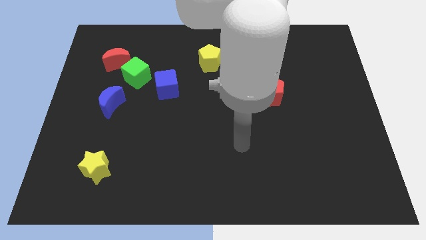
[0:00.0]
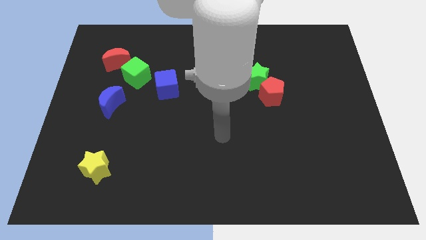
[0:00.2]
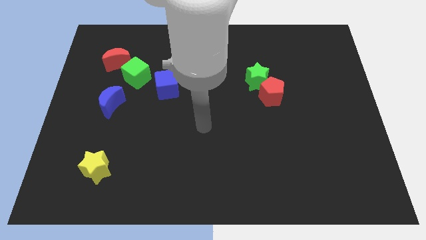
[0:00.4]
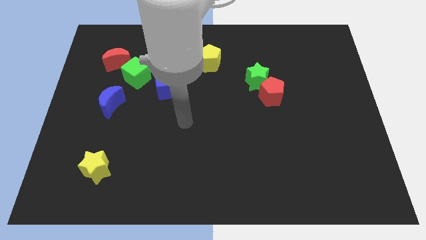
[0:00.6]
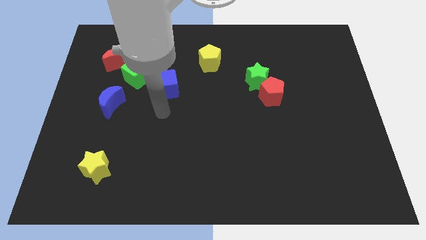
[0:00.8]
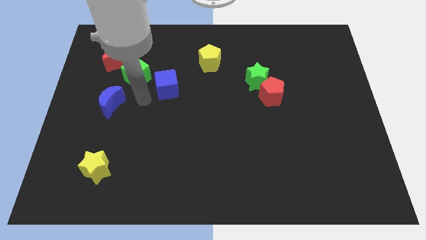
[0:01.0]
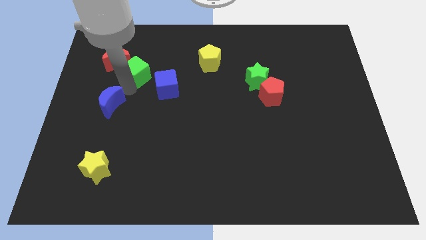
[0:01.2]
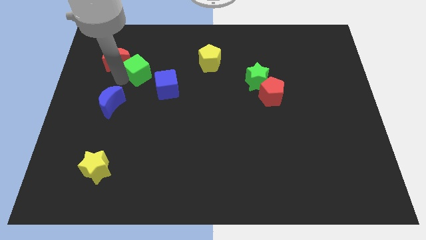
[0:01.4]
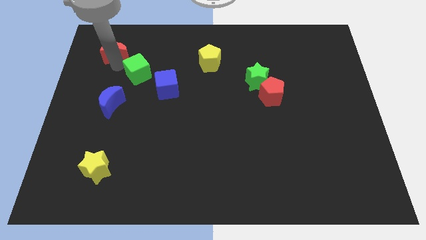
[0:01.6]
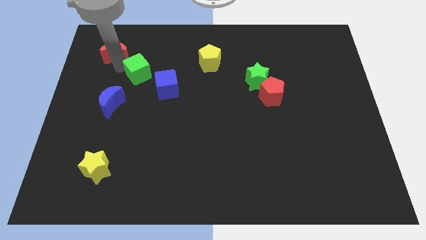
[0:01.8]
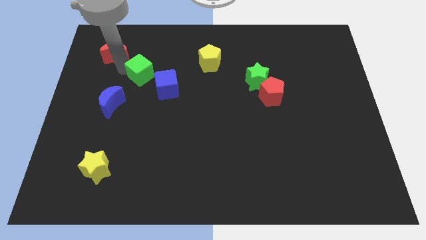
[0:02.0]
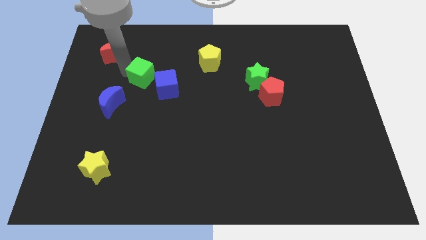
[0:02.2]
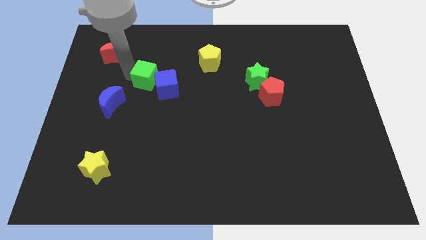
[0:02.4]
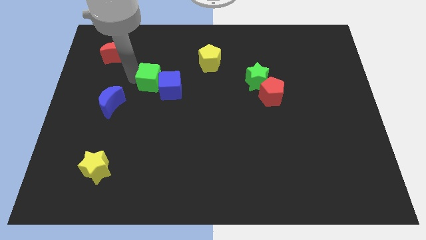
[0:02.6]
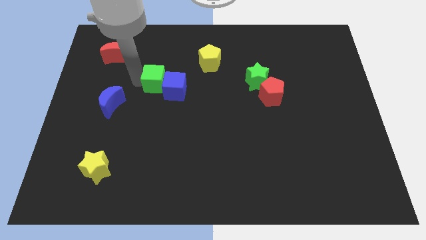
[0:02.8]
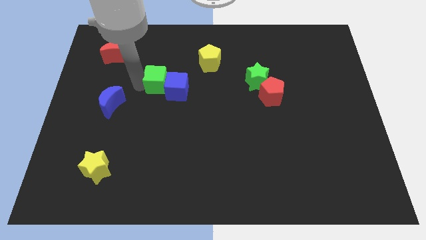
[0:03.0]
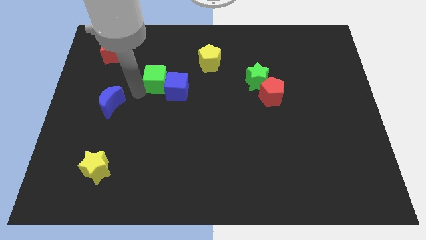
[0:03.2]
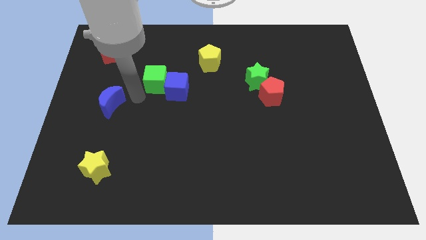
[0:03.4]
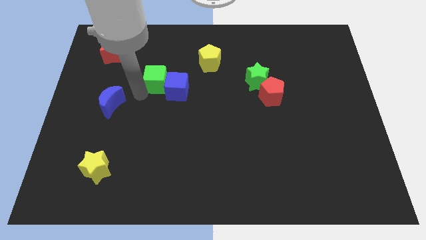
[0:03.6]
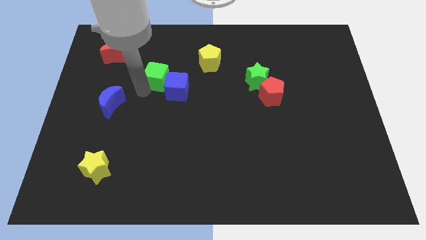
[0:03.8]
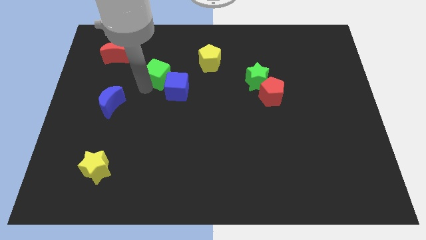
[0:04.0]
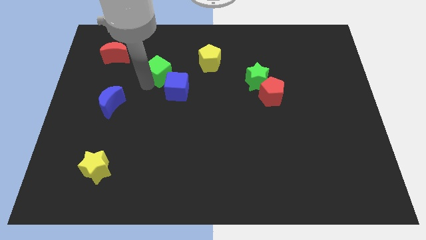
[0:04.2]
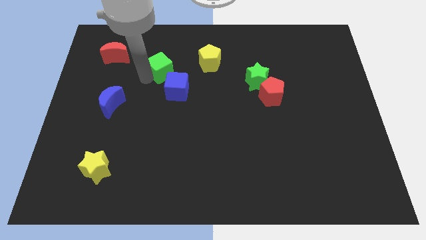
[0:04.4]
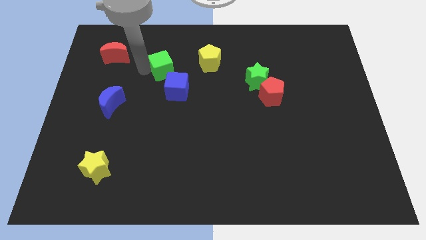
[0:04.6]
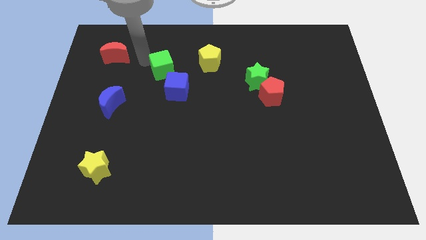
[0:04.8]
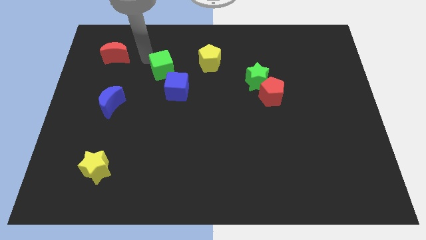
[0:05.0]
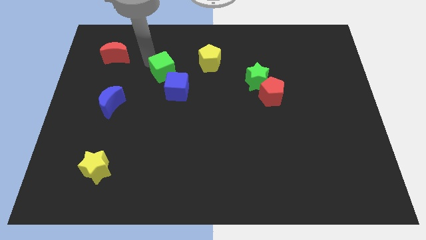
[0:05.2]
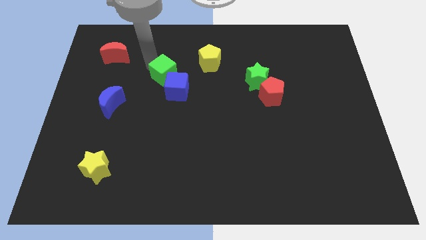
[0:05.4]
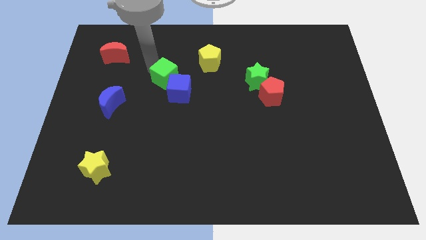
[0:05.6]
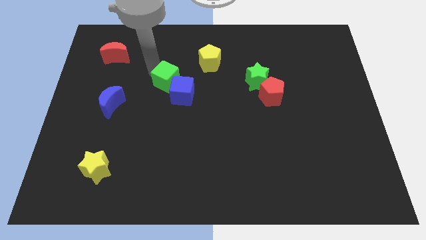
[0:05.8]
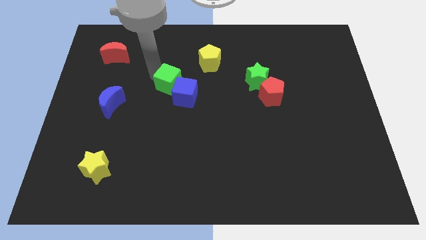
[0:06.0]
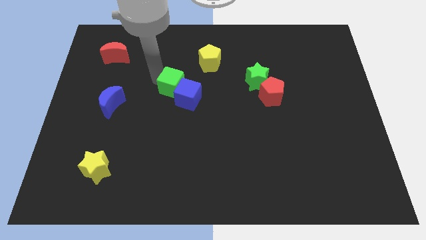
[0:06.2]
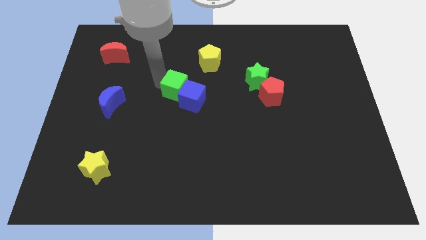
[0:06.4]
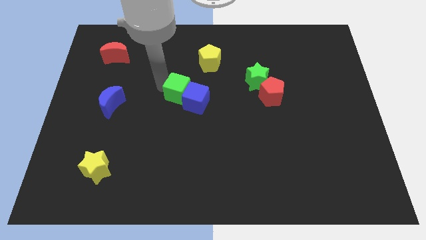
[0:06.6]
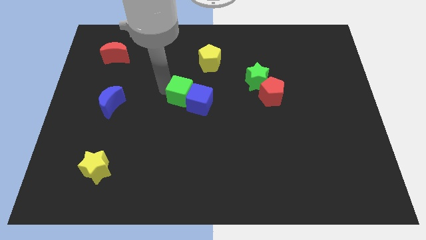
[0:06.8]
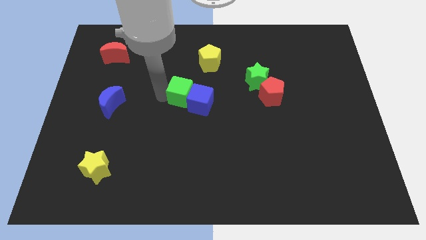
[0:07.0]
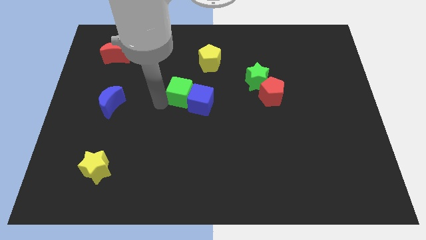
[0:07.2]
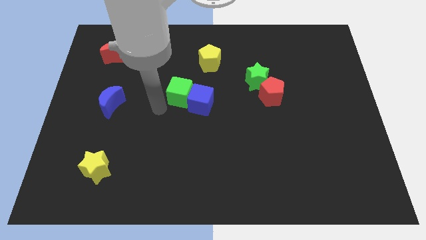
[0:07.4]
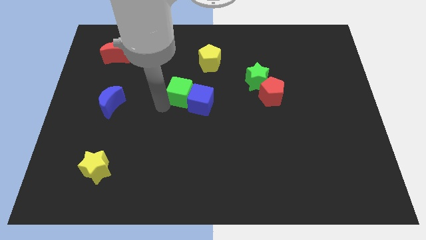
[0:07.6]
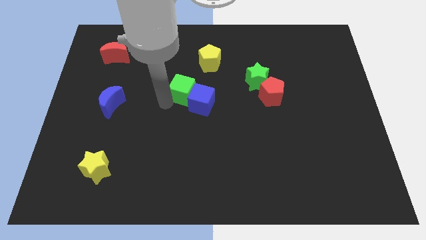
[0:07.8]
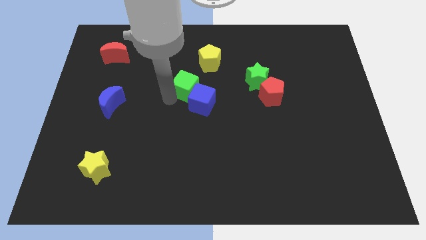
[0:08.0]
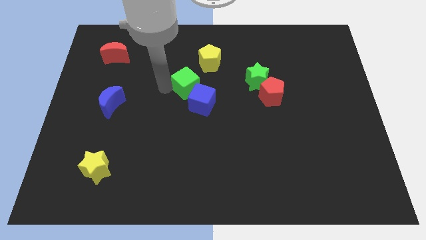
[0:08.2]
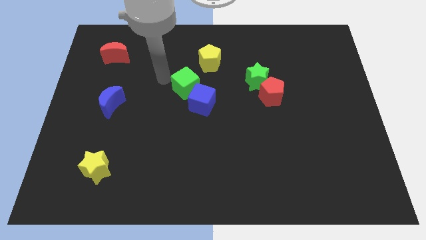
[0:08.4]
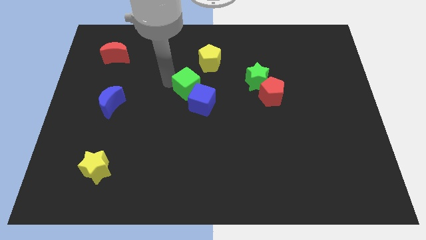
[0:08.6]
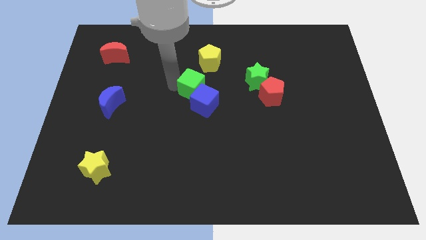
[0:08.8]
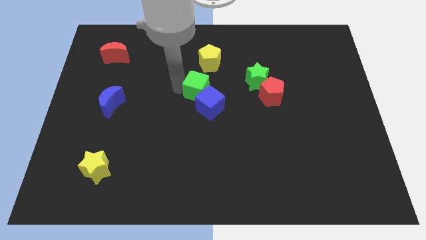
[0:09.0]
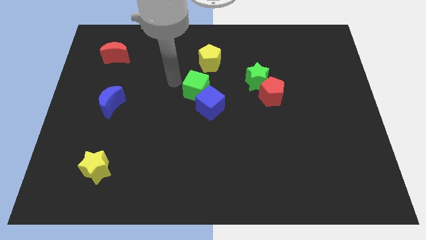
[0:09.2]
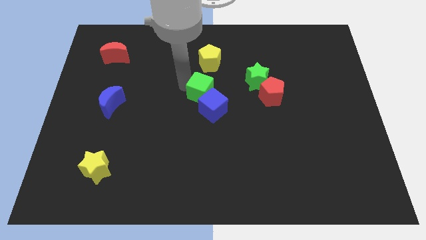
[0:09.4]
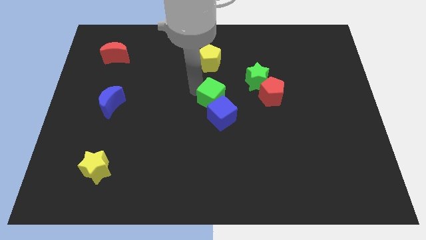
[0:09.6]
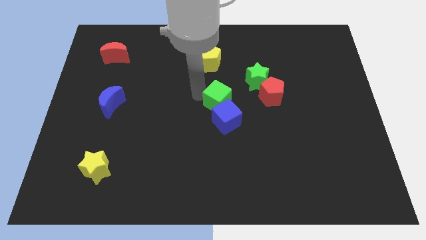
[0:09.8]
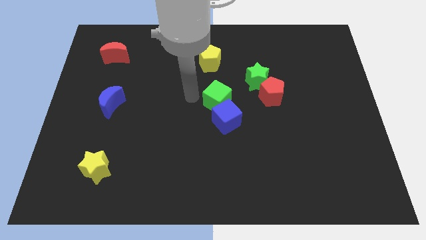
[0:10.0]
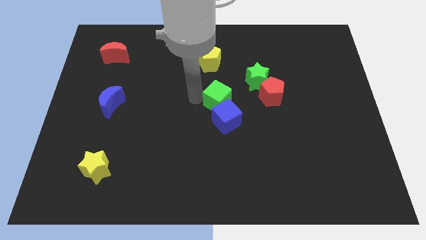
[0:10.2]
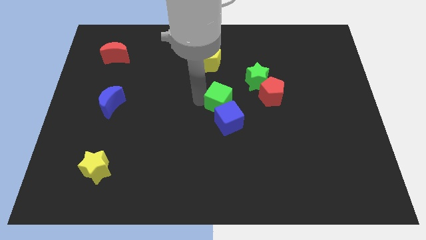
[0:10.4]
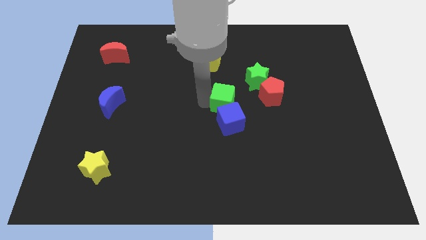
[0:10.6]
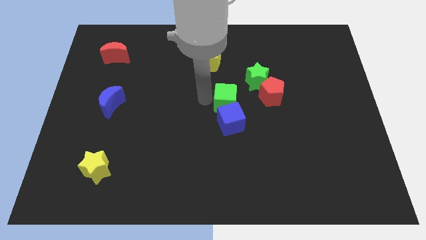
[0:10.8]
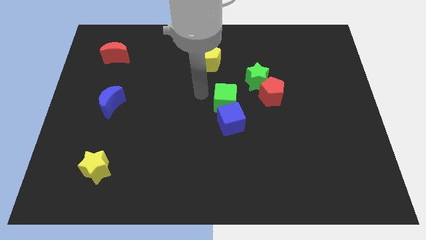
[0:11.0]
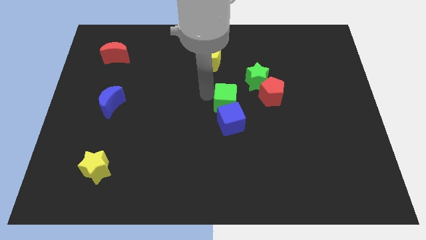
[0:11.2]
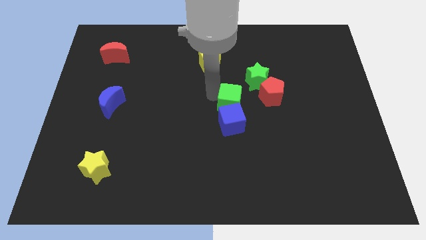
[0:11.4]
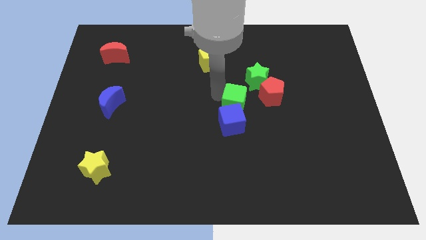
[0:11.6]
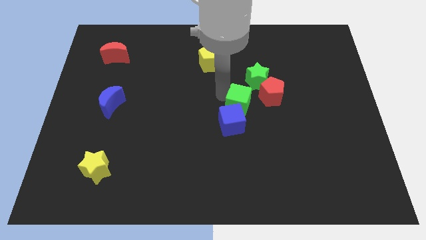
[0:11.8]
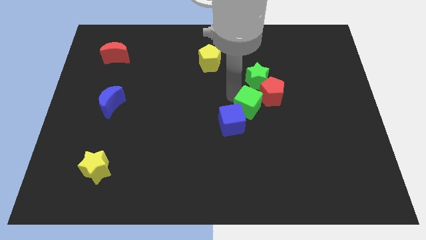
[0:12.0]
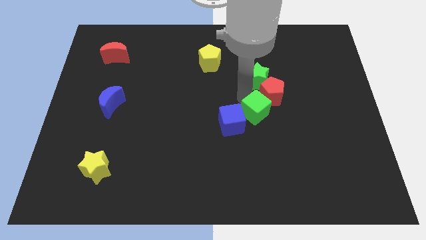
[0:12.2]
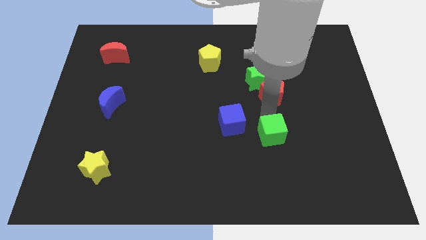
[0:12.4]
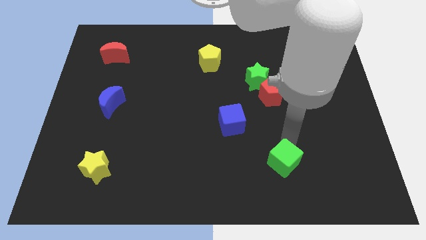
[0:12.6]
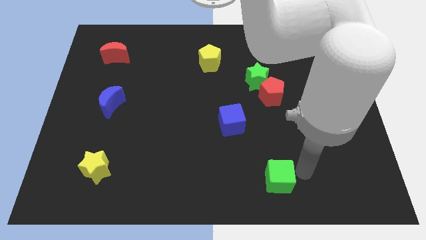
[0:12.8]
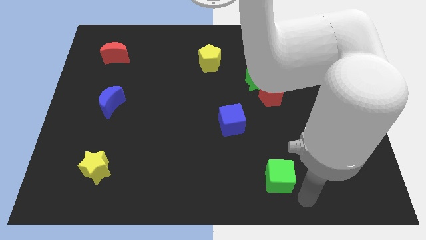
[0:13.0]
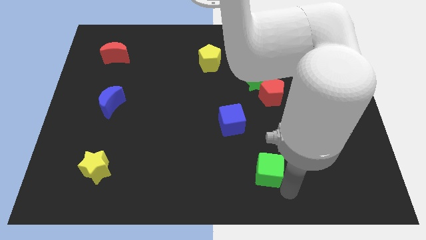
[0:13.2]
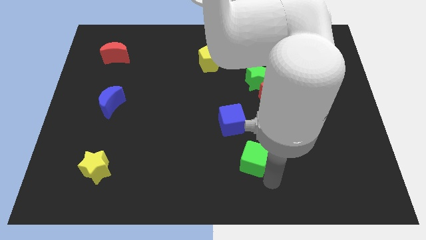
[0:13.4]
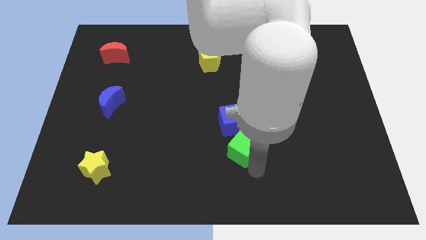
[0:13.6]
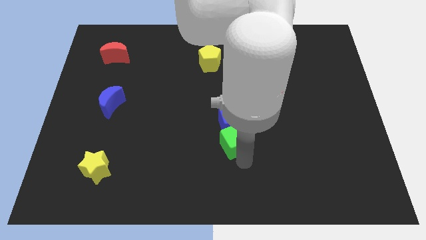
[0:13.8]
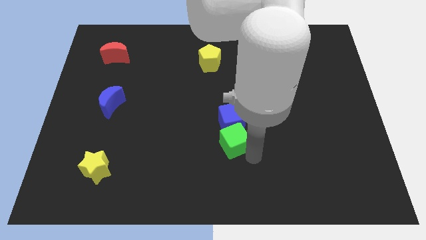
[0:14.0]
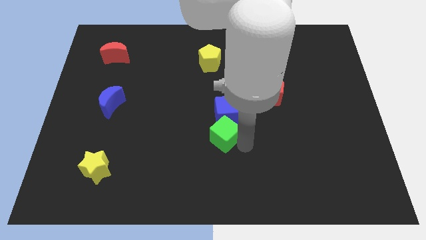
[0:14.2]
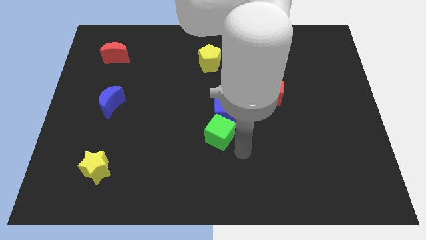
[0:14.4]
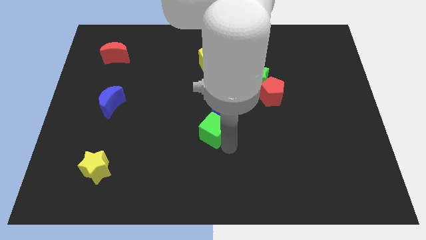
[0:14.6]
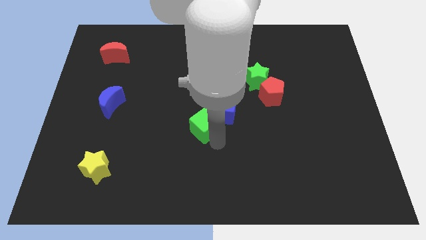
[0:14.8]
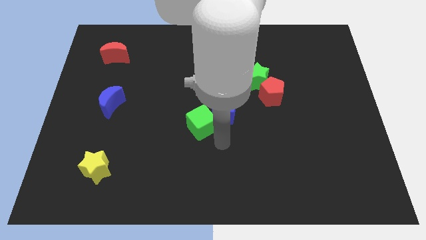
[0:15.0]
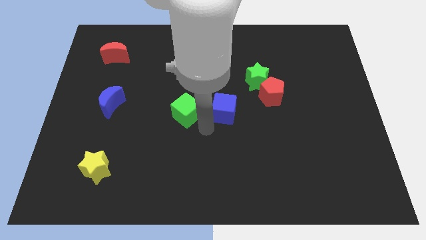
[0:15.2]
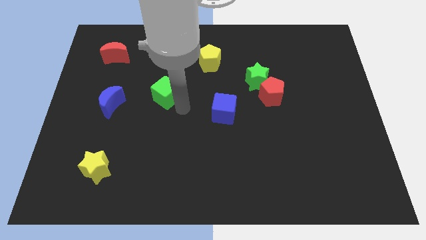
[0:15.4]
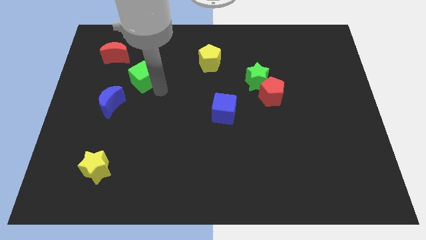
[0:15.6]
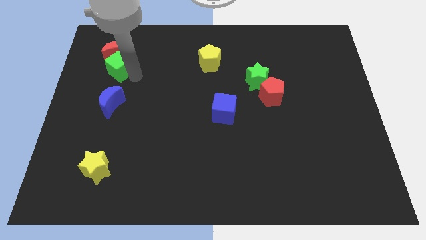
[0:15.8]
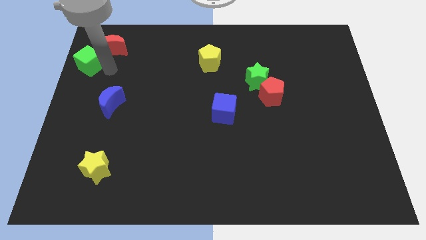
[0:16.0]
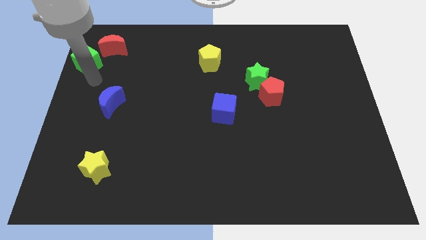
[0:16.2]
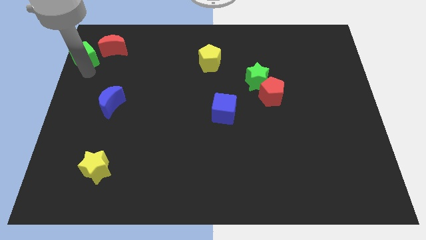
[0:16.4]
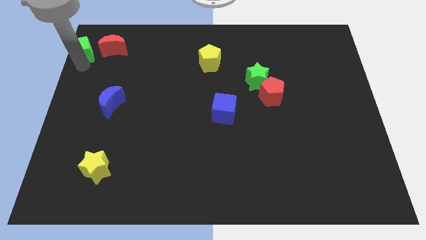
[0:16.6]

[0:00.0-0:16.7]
push the green cube to the top left of the board
